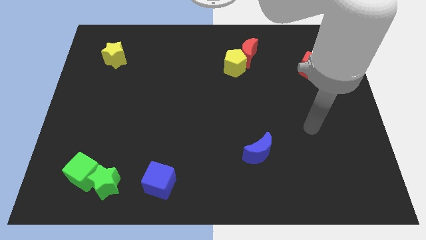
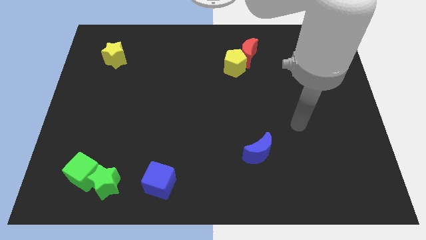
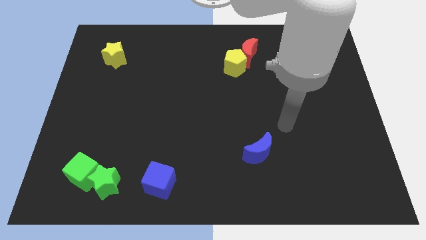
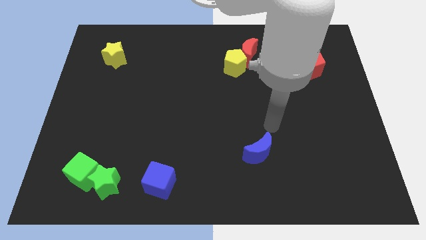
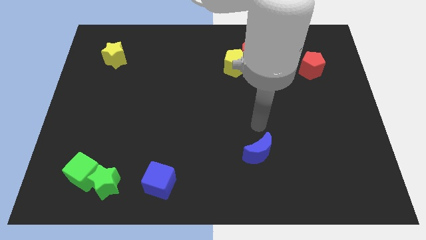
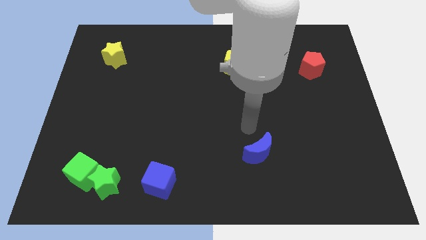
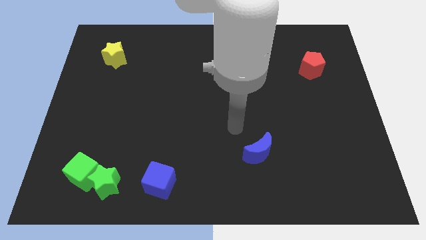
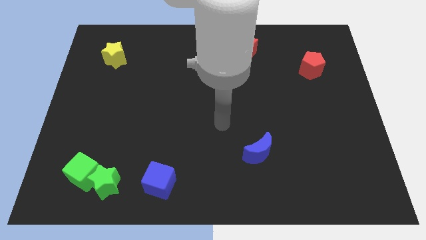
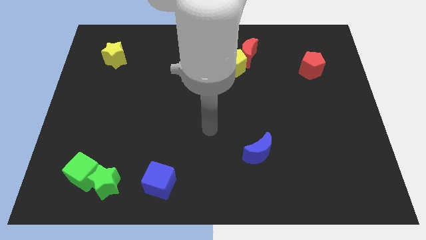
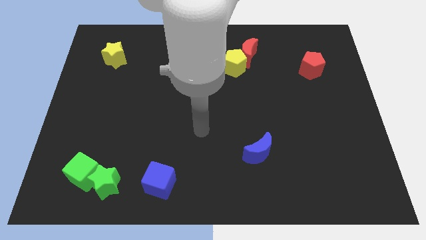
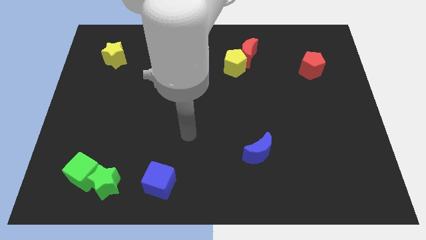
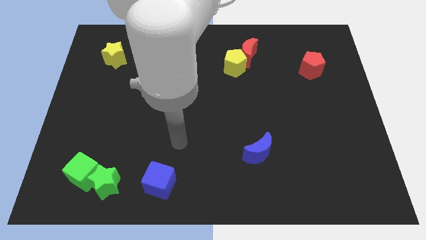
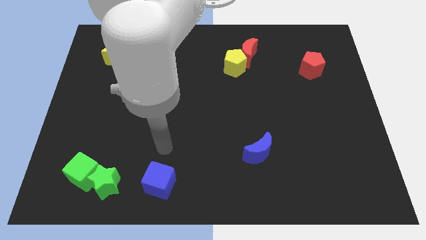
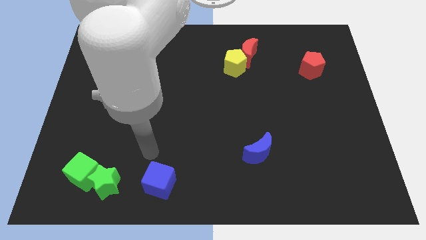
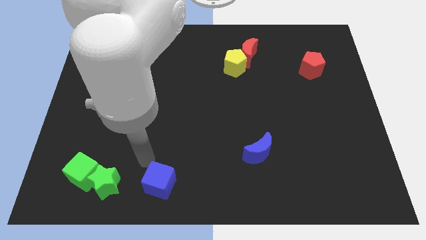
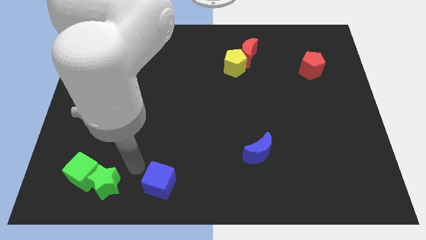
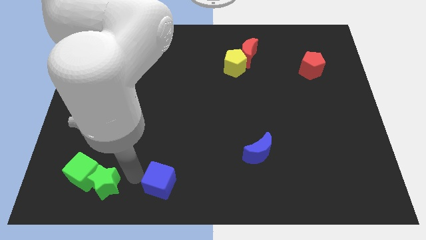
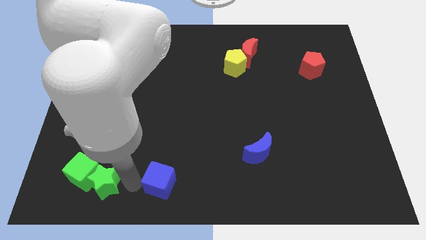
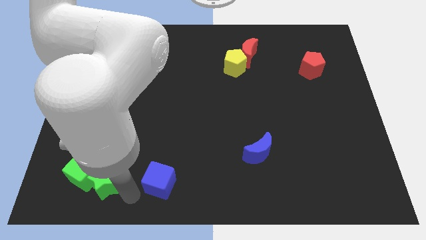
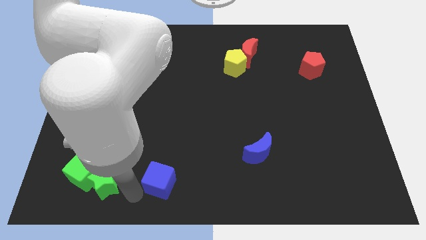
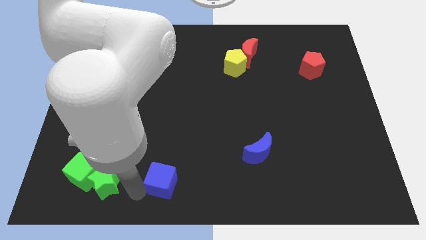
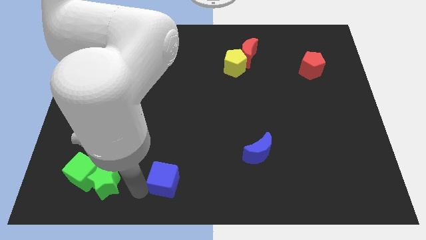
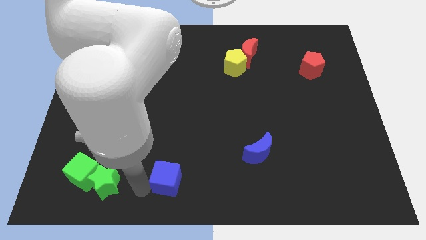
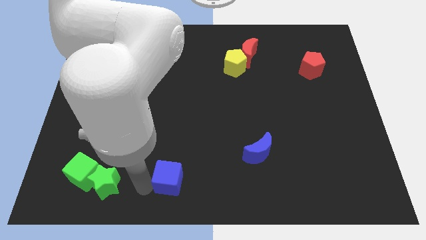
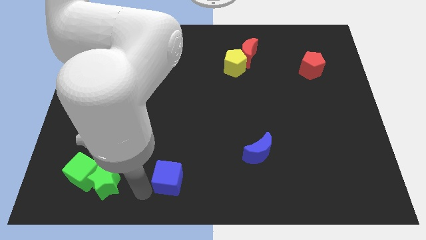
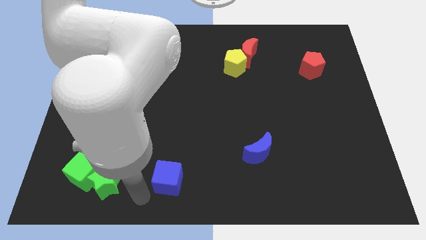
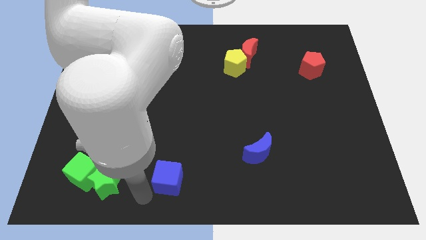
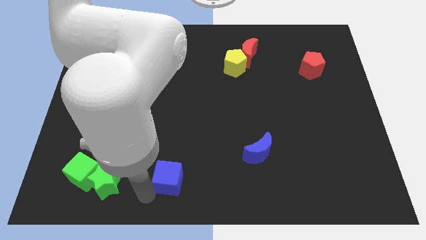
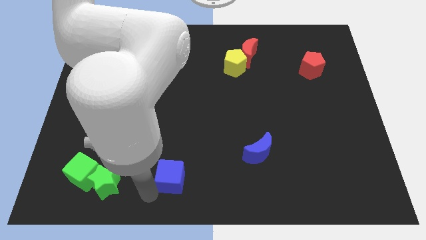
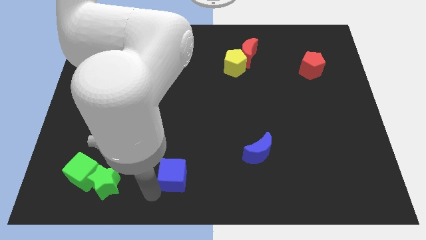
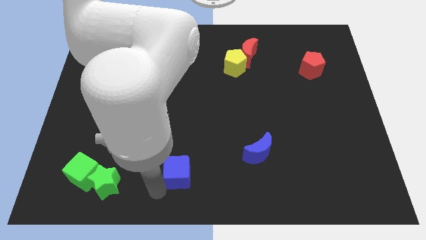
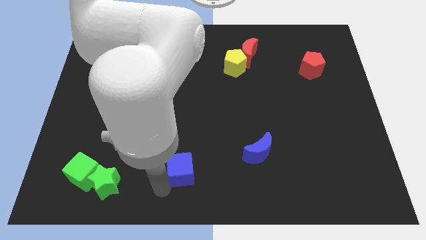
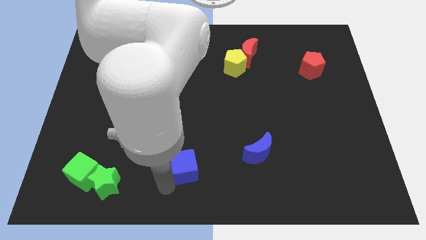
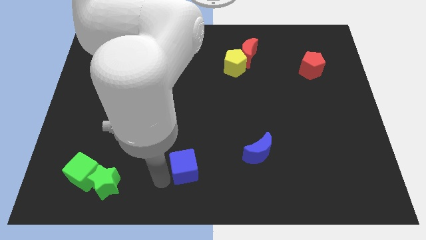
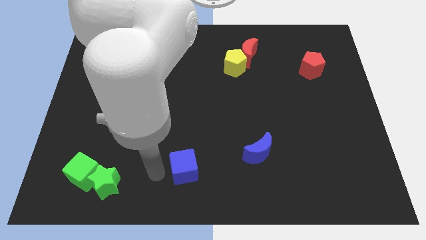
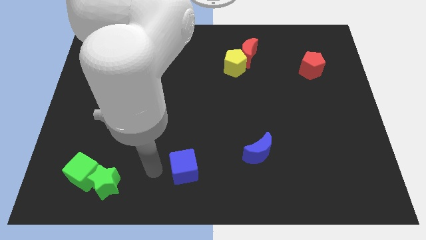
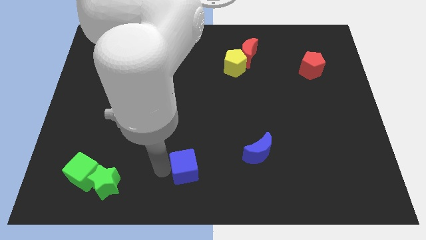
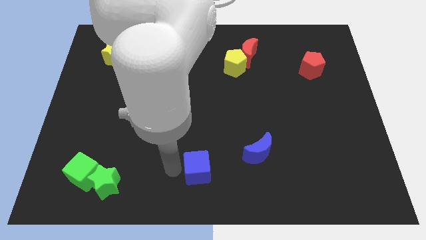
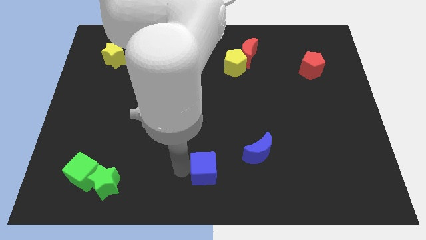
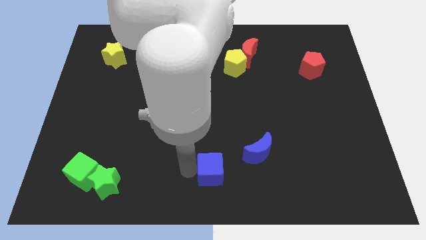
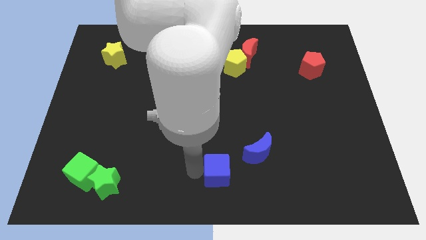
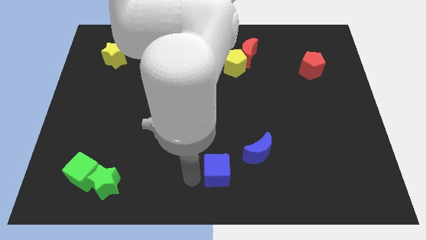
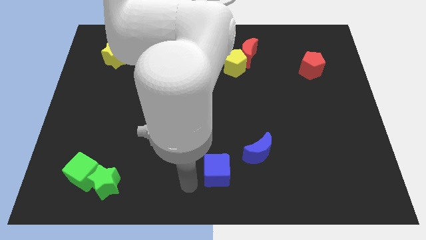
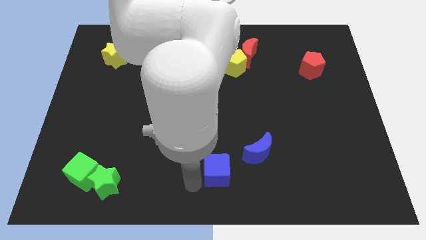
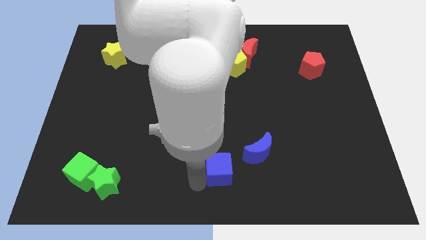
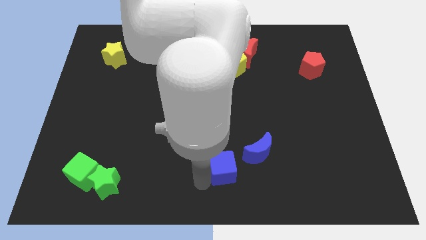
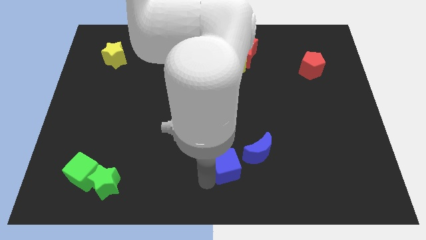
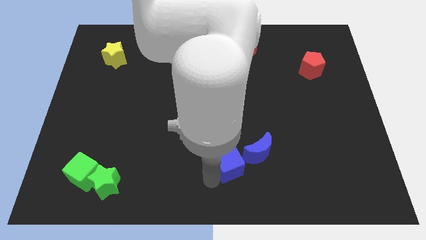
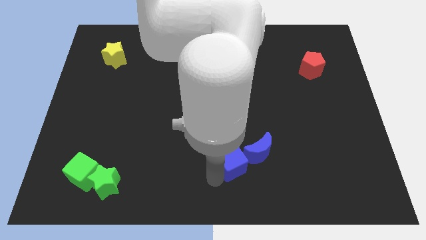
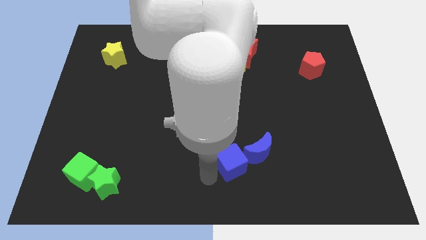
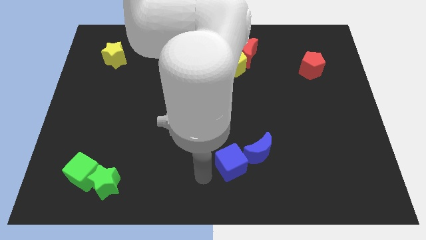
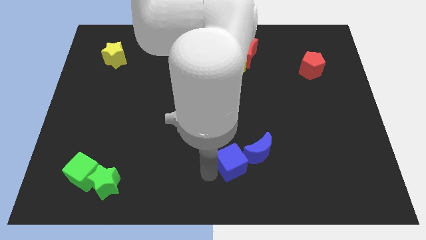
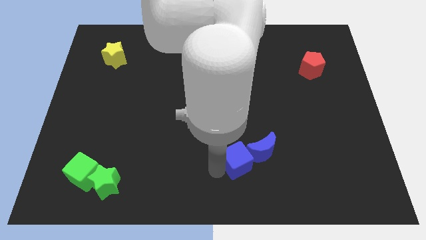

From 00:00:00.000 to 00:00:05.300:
move the blue cube close to the blue moon
